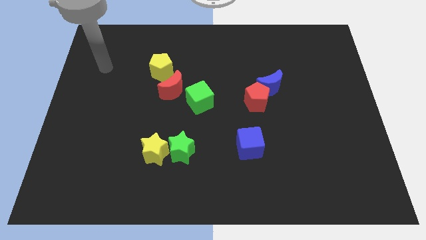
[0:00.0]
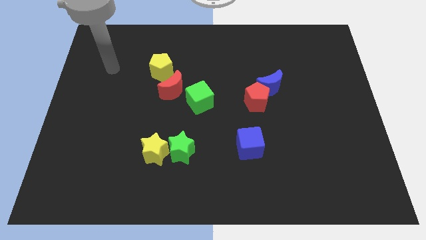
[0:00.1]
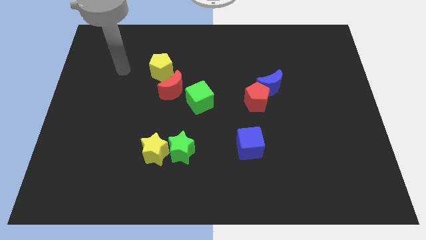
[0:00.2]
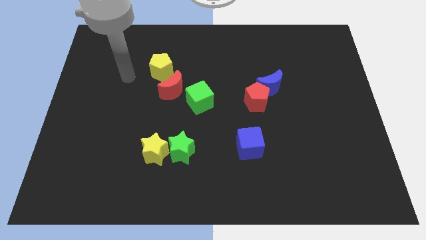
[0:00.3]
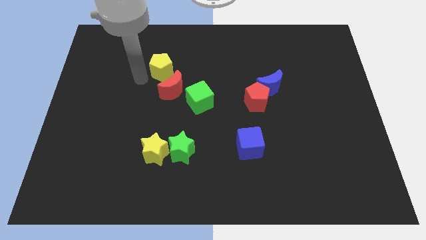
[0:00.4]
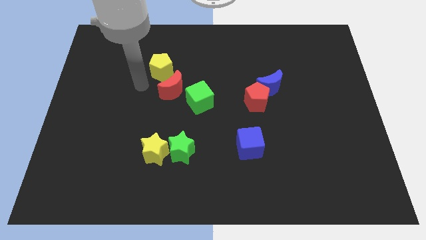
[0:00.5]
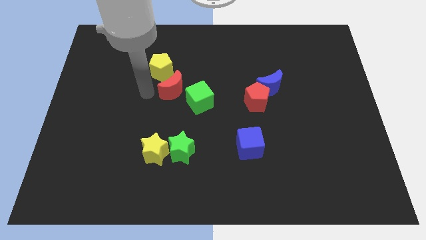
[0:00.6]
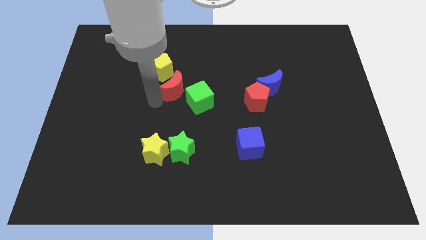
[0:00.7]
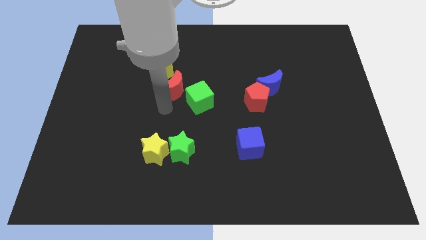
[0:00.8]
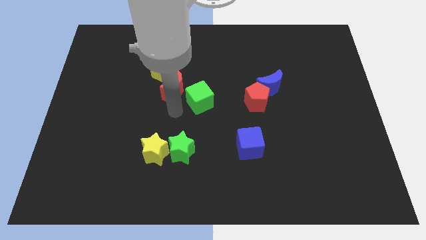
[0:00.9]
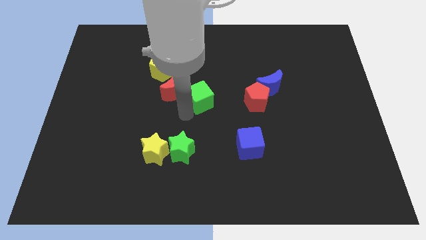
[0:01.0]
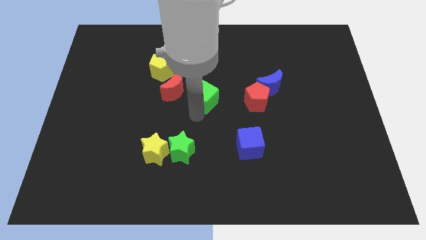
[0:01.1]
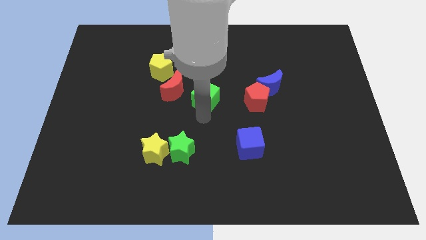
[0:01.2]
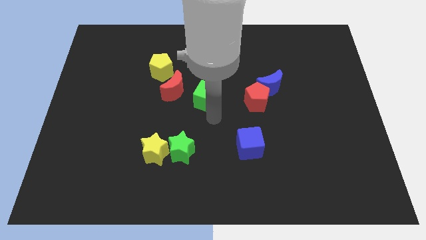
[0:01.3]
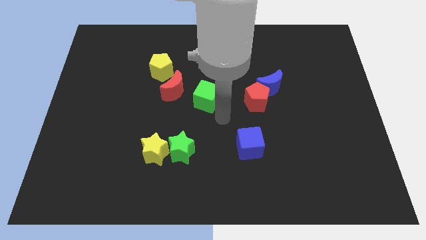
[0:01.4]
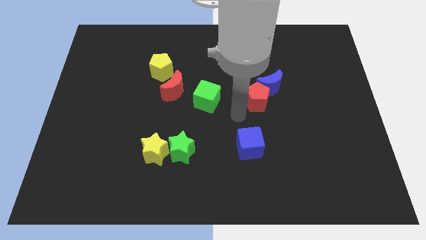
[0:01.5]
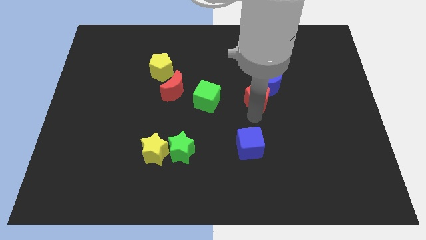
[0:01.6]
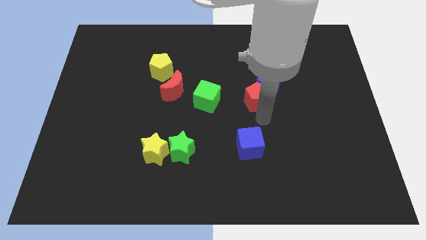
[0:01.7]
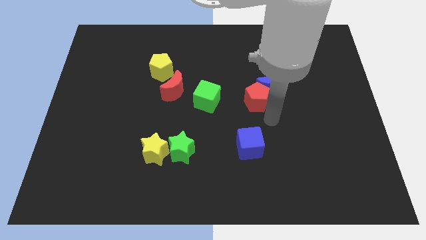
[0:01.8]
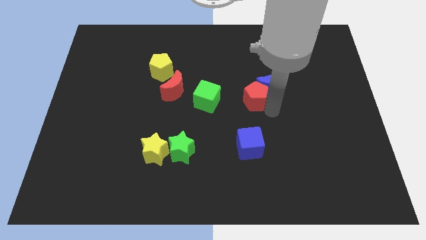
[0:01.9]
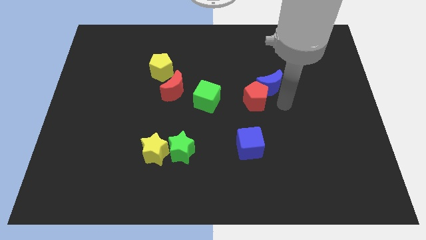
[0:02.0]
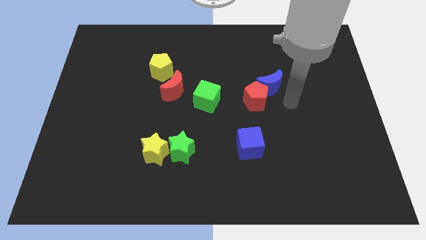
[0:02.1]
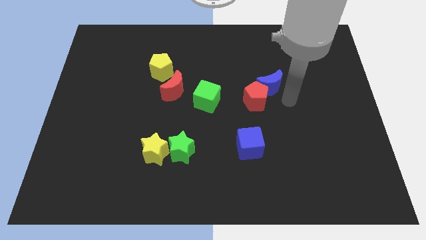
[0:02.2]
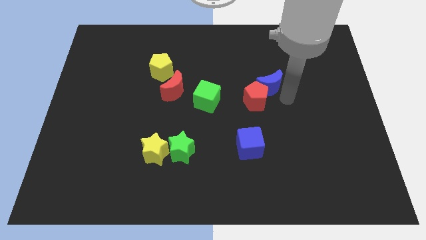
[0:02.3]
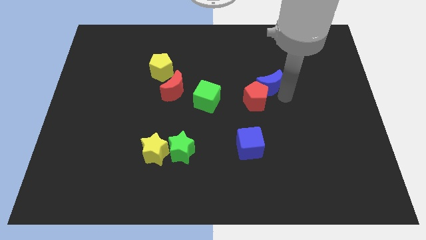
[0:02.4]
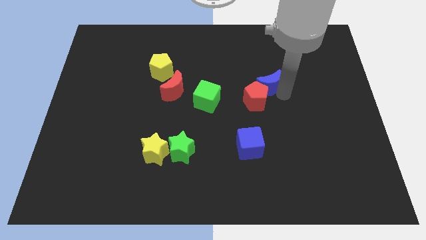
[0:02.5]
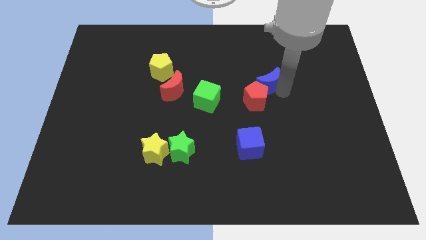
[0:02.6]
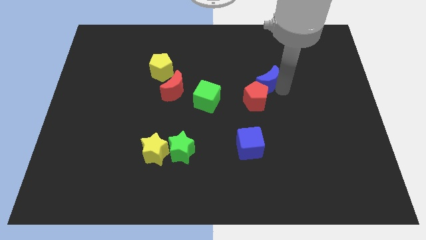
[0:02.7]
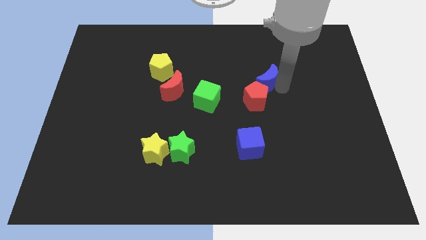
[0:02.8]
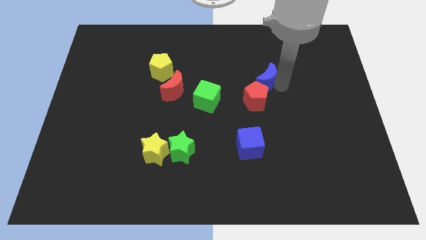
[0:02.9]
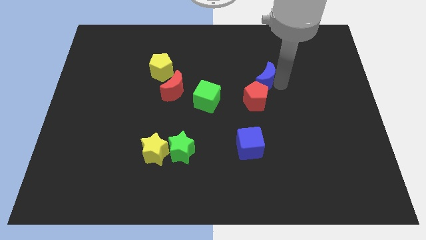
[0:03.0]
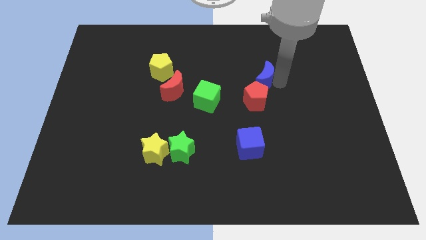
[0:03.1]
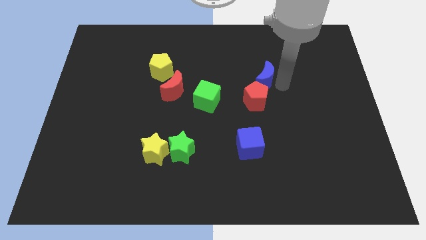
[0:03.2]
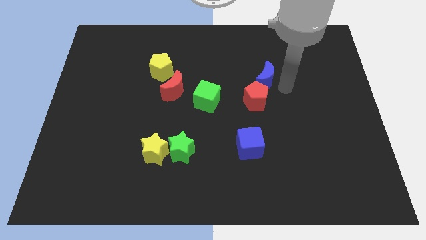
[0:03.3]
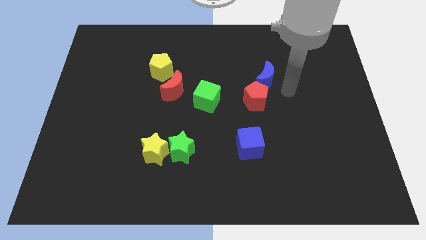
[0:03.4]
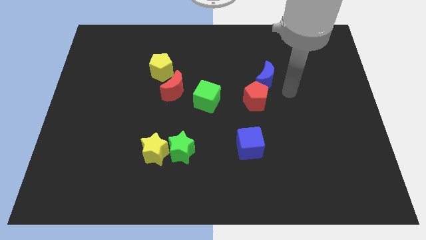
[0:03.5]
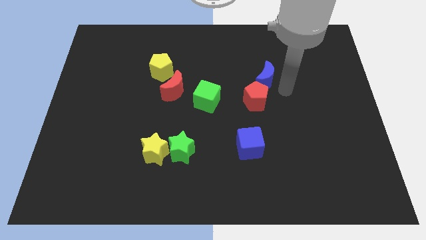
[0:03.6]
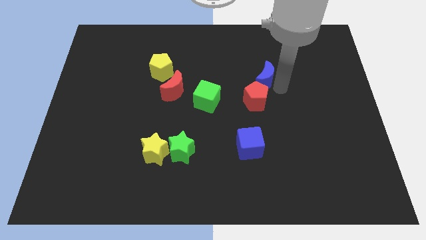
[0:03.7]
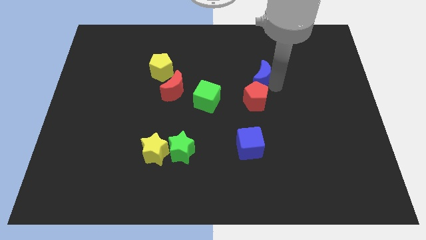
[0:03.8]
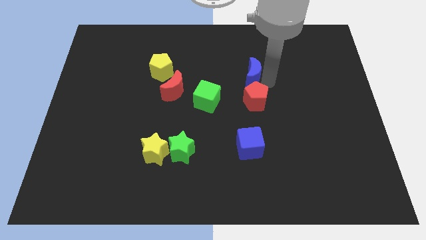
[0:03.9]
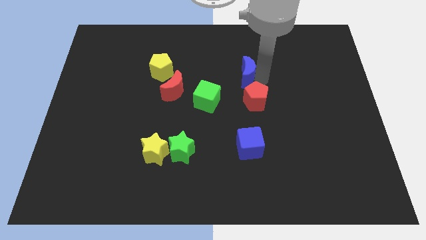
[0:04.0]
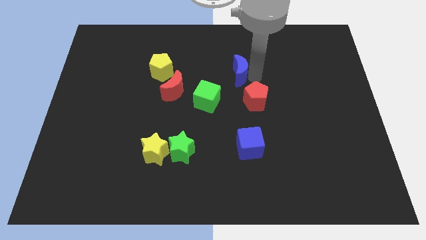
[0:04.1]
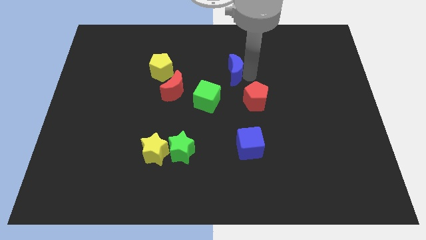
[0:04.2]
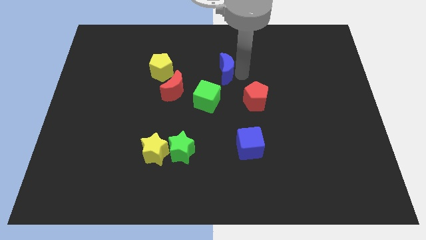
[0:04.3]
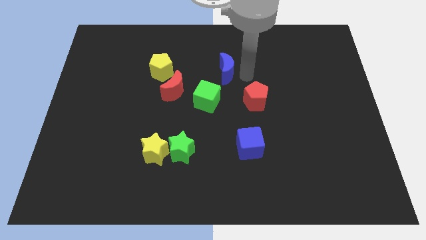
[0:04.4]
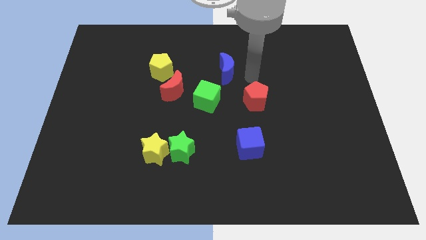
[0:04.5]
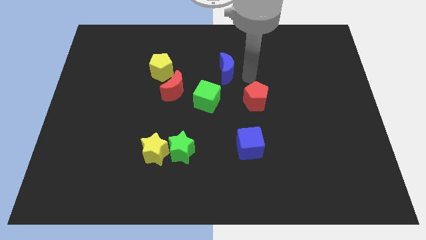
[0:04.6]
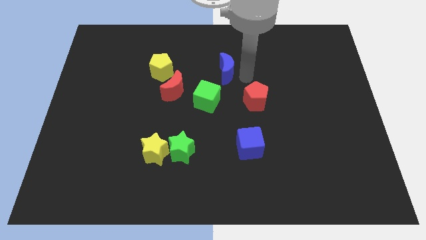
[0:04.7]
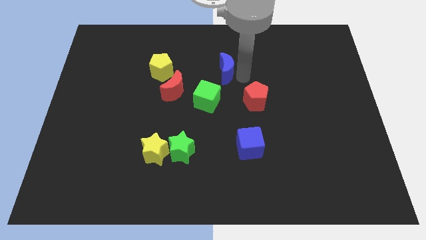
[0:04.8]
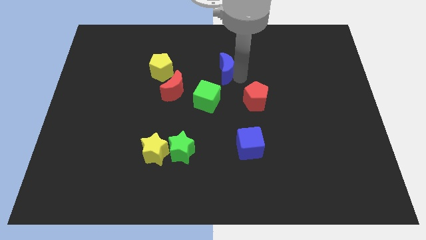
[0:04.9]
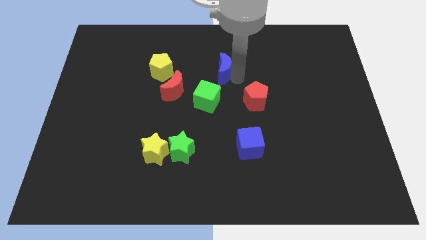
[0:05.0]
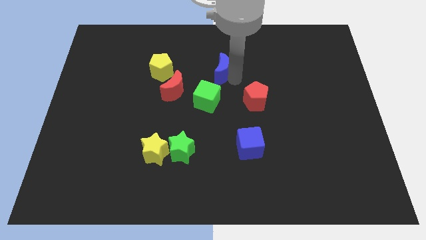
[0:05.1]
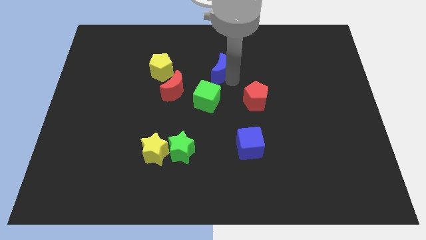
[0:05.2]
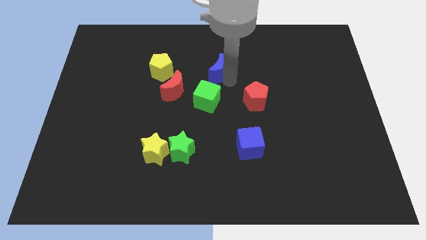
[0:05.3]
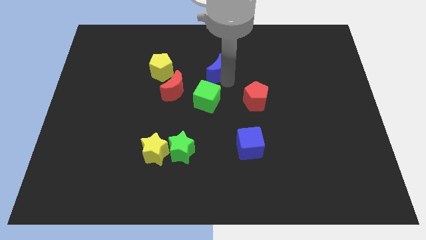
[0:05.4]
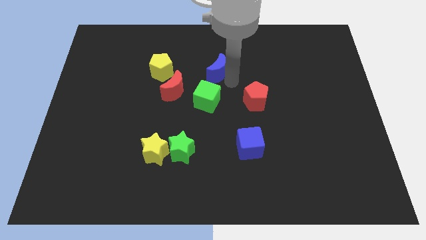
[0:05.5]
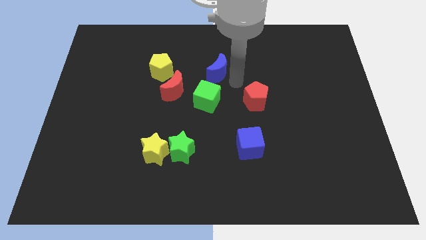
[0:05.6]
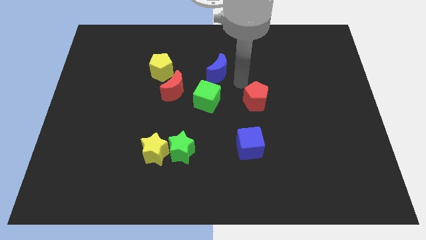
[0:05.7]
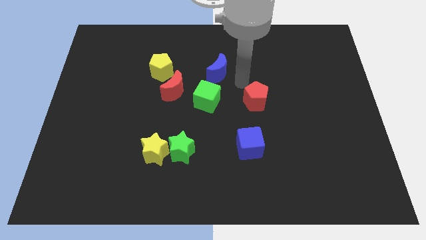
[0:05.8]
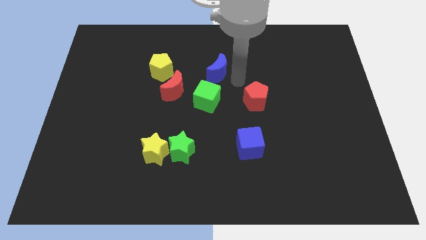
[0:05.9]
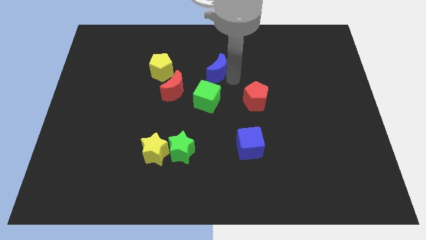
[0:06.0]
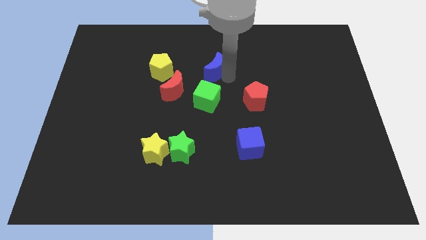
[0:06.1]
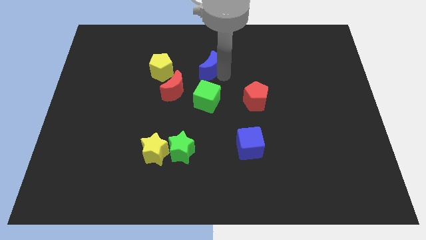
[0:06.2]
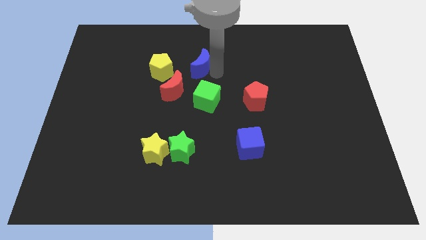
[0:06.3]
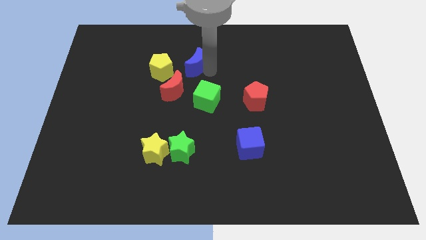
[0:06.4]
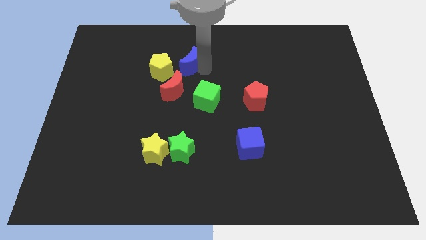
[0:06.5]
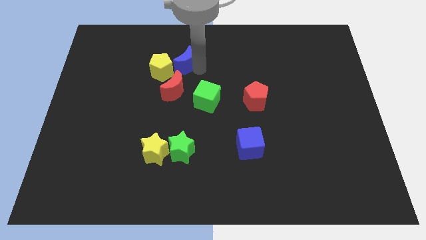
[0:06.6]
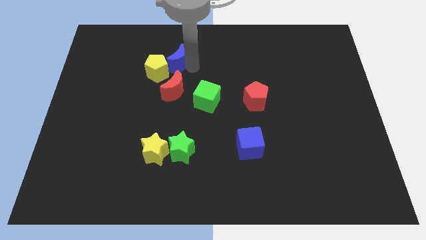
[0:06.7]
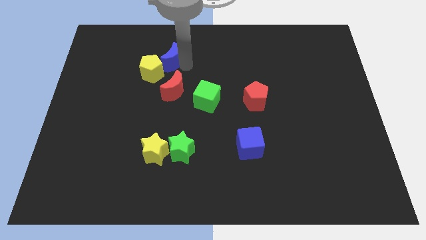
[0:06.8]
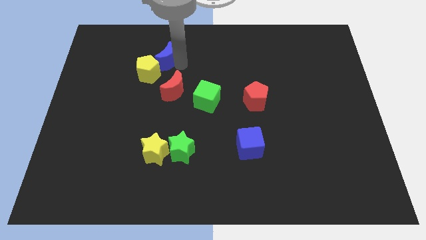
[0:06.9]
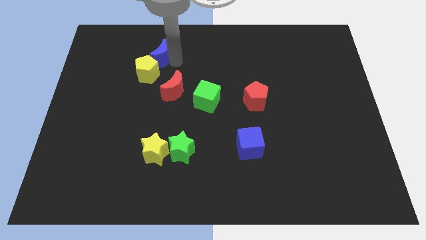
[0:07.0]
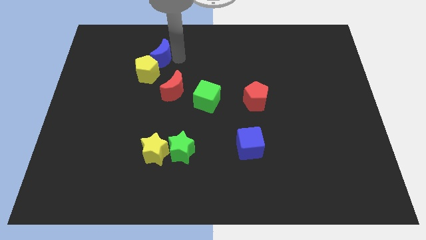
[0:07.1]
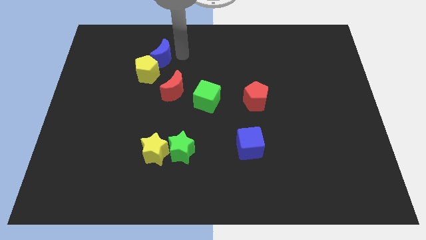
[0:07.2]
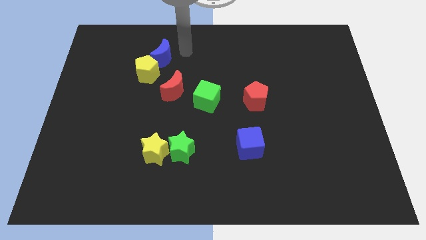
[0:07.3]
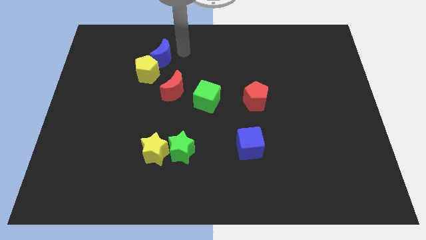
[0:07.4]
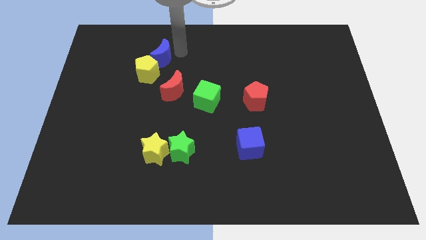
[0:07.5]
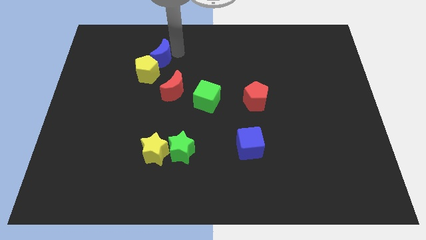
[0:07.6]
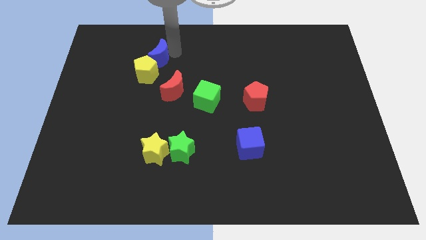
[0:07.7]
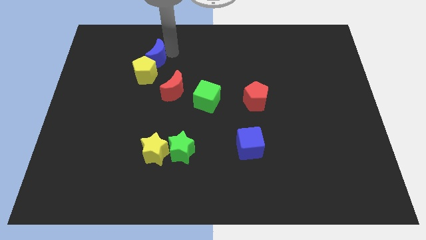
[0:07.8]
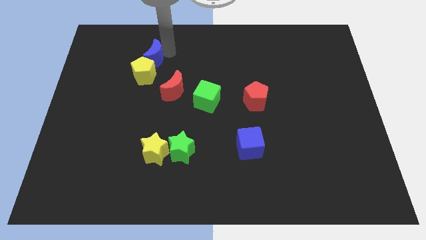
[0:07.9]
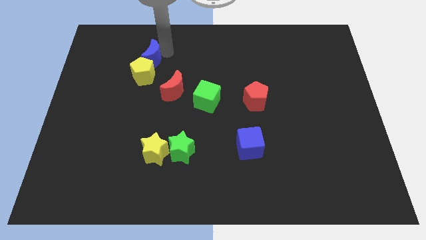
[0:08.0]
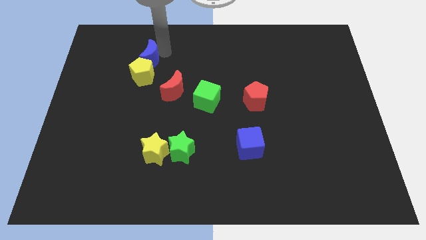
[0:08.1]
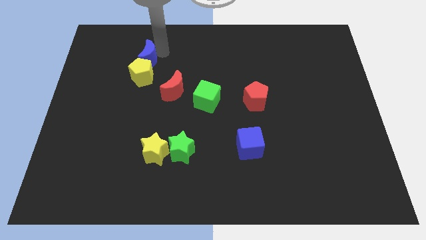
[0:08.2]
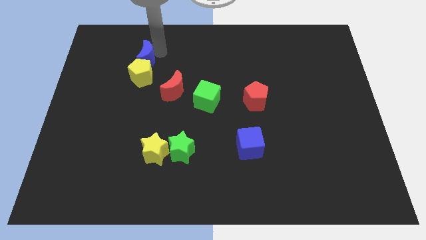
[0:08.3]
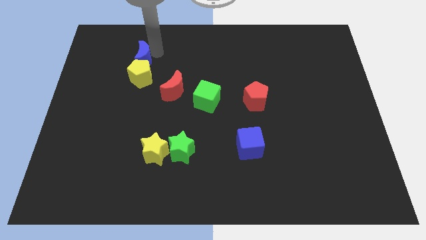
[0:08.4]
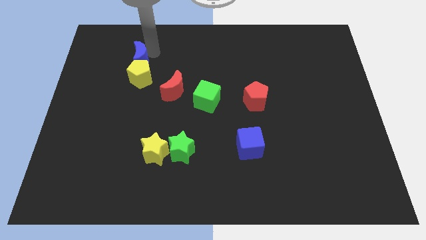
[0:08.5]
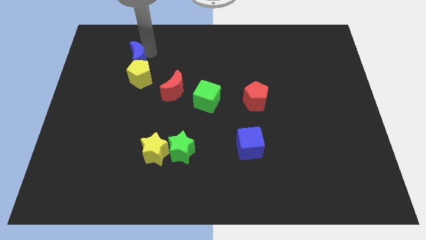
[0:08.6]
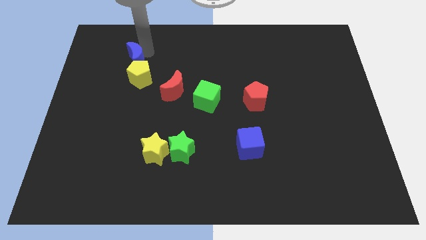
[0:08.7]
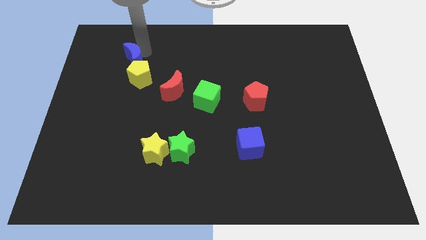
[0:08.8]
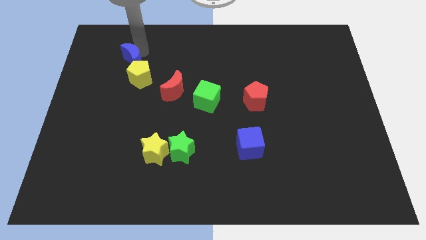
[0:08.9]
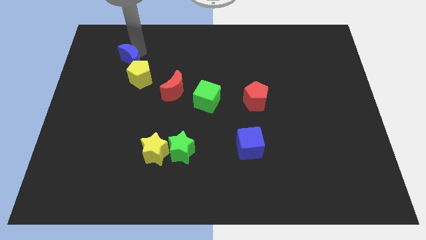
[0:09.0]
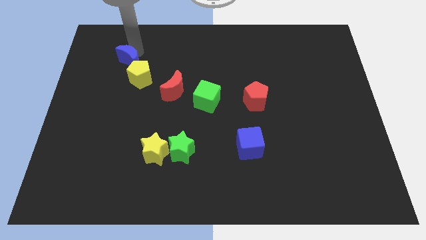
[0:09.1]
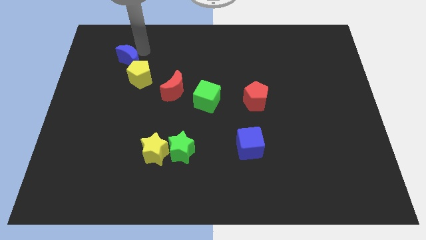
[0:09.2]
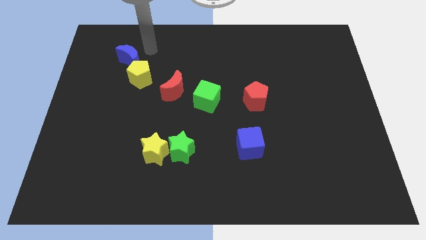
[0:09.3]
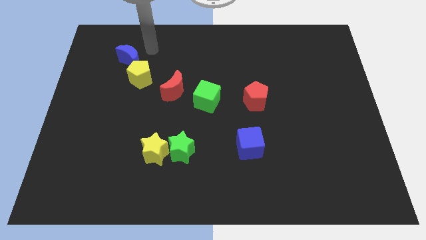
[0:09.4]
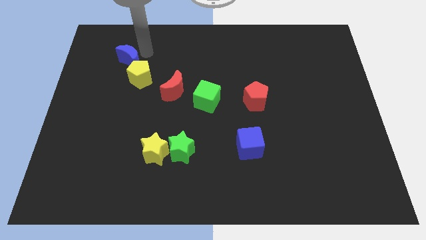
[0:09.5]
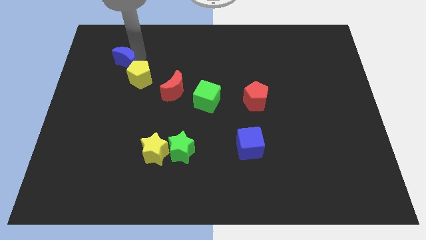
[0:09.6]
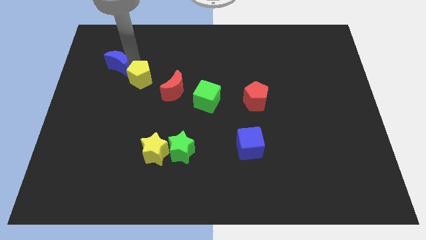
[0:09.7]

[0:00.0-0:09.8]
slide the blue moon to the left of the yellow pentagon
